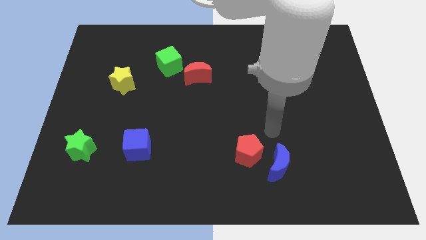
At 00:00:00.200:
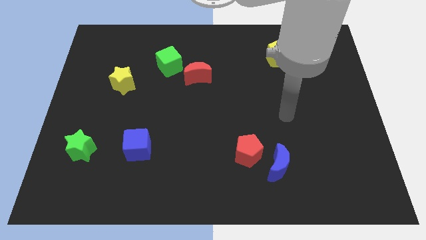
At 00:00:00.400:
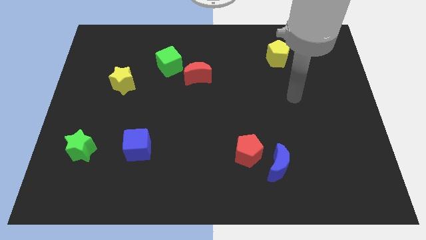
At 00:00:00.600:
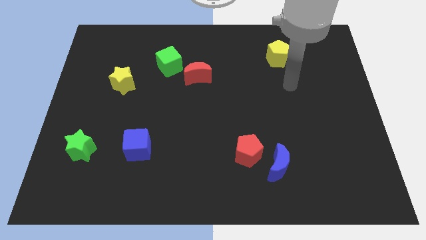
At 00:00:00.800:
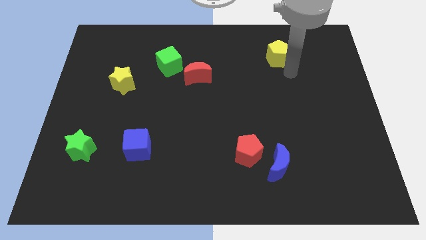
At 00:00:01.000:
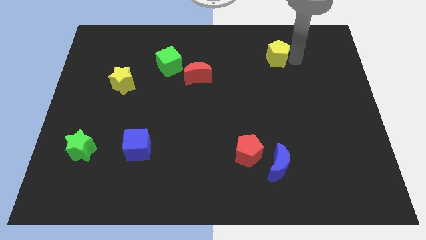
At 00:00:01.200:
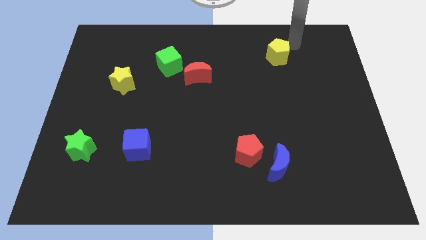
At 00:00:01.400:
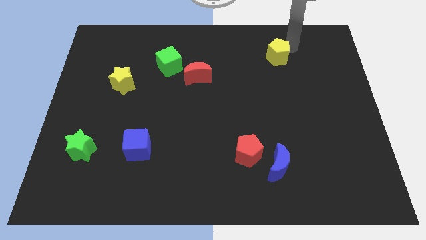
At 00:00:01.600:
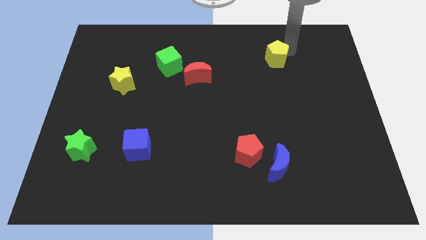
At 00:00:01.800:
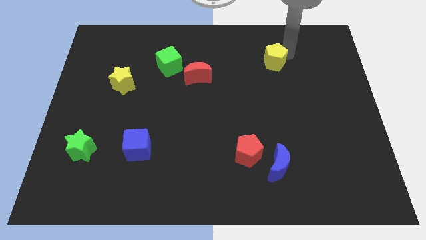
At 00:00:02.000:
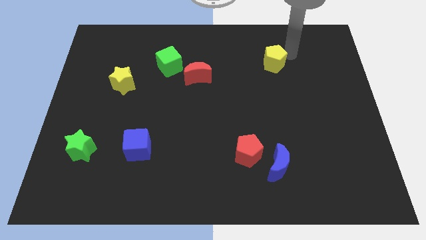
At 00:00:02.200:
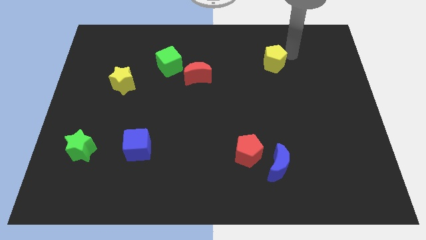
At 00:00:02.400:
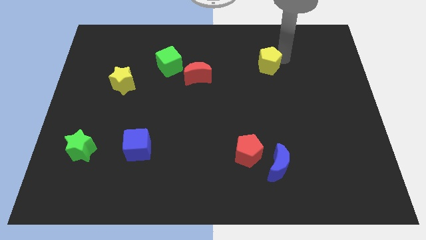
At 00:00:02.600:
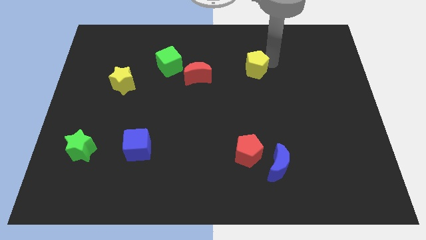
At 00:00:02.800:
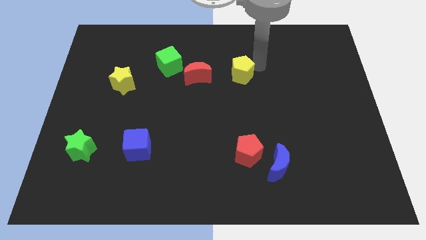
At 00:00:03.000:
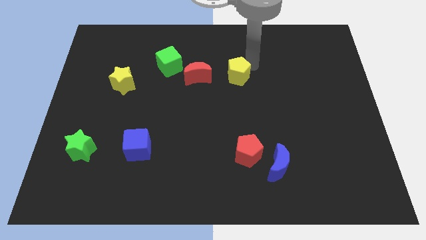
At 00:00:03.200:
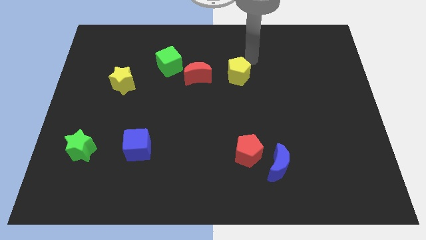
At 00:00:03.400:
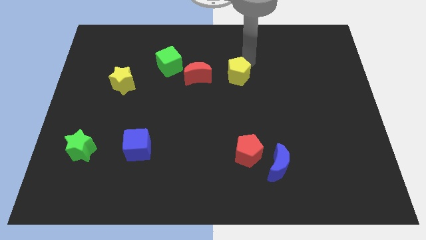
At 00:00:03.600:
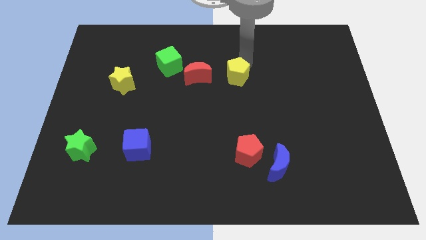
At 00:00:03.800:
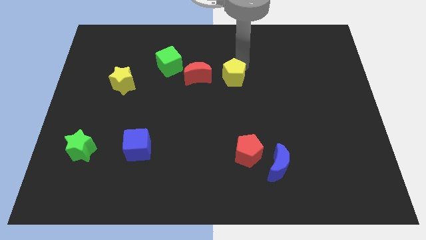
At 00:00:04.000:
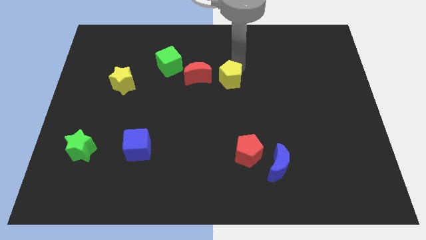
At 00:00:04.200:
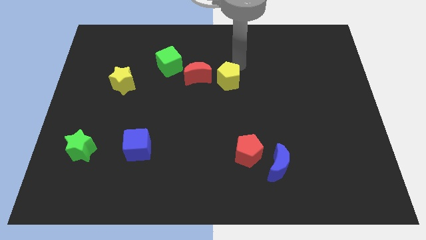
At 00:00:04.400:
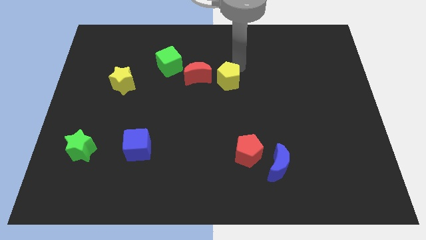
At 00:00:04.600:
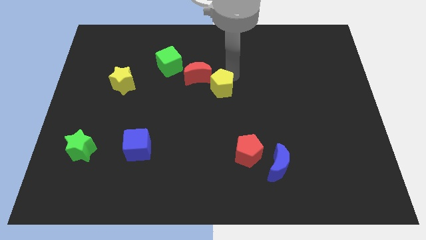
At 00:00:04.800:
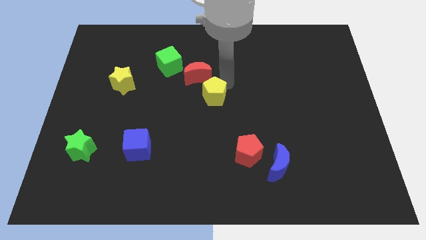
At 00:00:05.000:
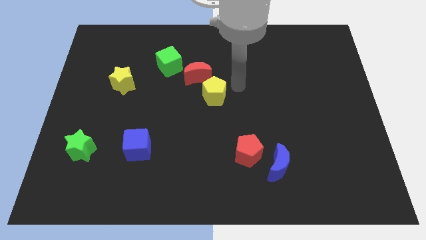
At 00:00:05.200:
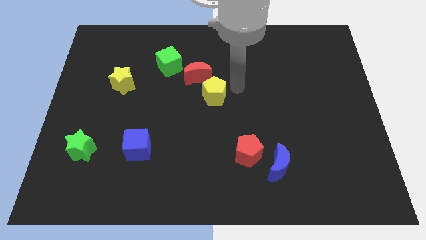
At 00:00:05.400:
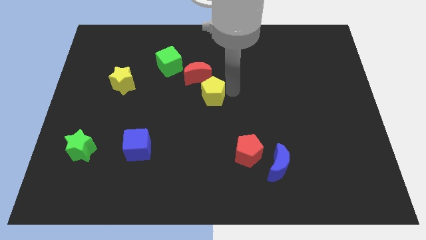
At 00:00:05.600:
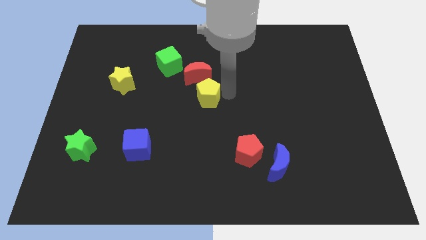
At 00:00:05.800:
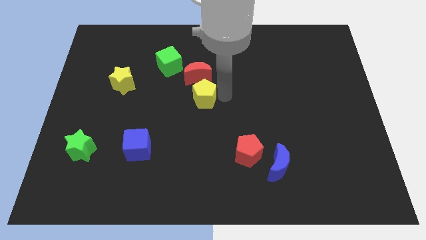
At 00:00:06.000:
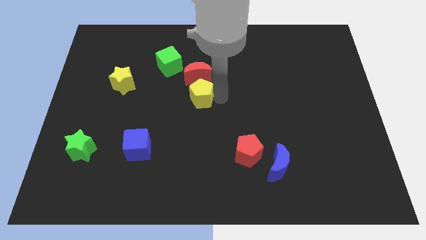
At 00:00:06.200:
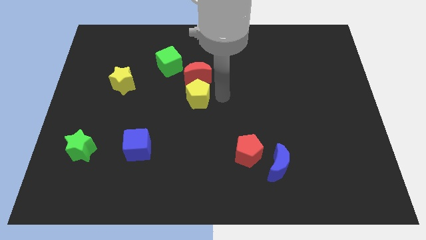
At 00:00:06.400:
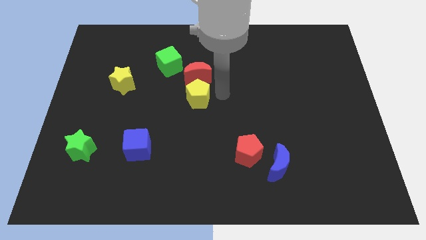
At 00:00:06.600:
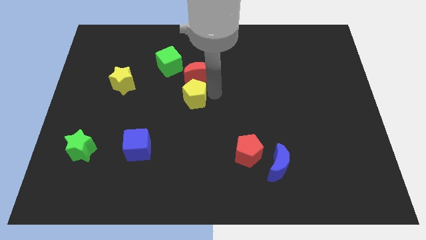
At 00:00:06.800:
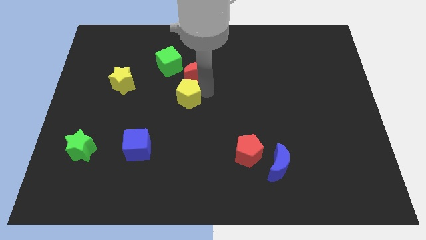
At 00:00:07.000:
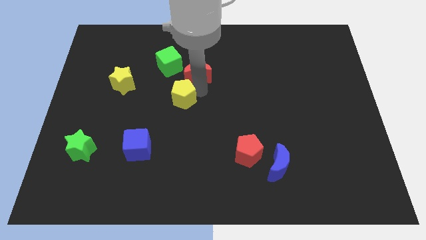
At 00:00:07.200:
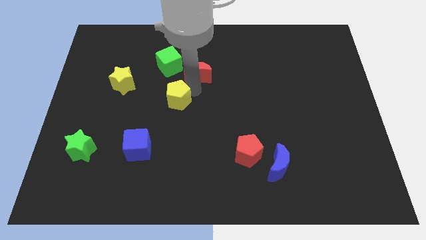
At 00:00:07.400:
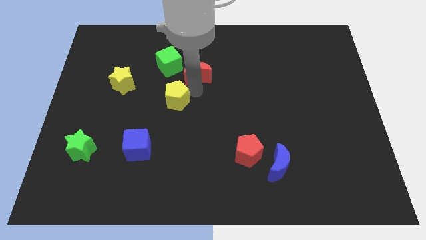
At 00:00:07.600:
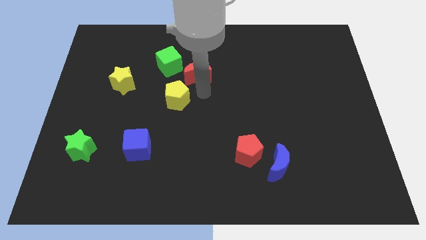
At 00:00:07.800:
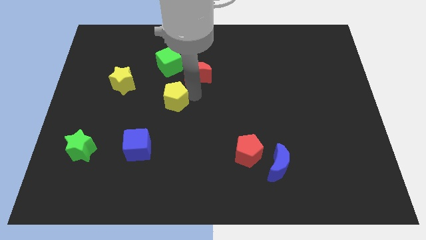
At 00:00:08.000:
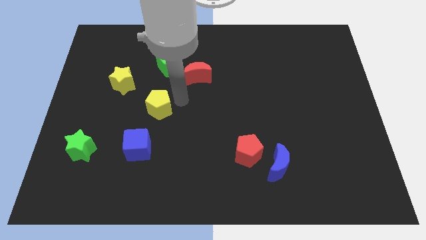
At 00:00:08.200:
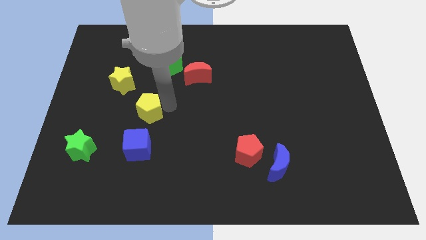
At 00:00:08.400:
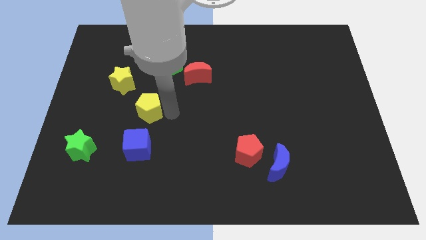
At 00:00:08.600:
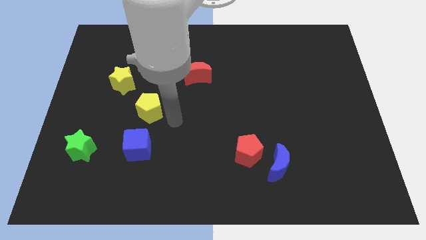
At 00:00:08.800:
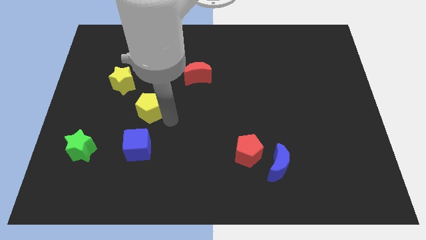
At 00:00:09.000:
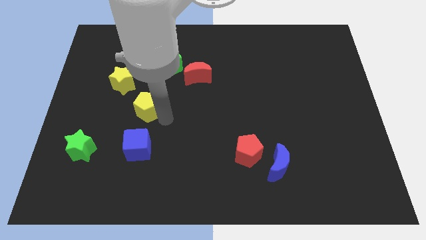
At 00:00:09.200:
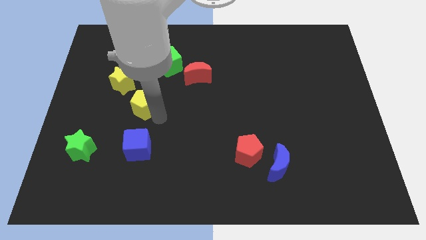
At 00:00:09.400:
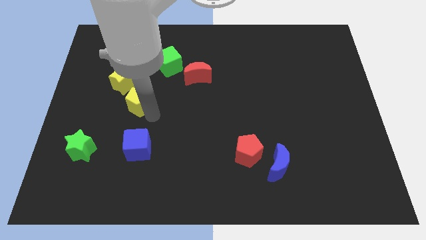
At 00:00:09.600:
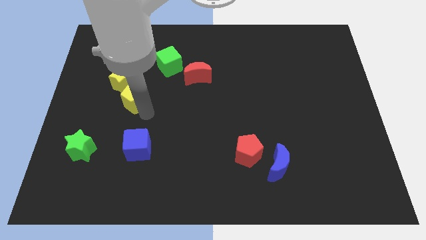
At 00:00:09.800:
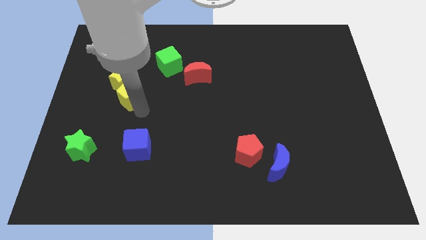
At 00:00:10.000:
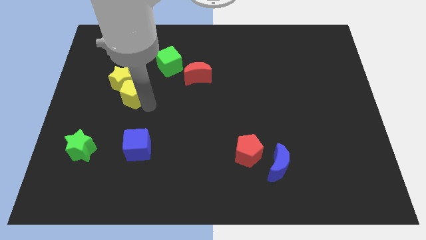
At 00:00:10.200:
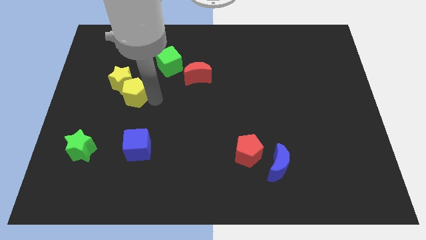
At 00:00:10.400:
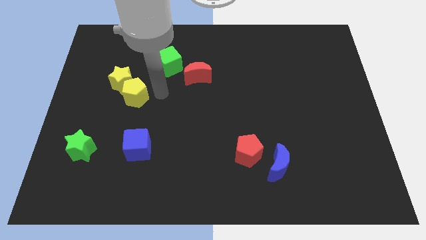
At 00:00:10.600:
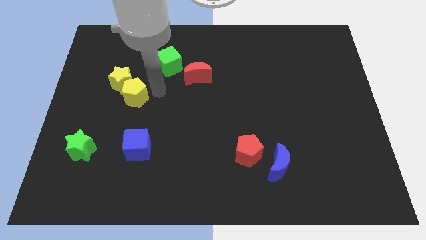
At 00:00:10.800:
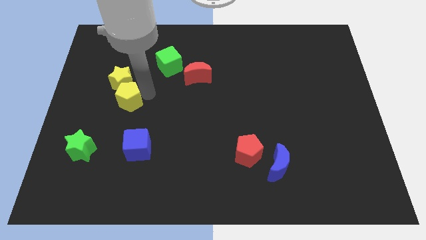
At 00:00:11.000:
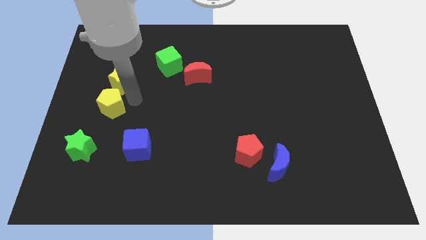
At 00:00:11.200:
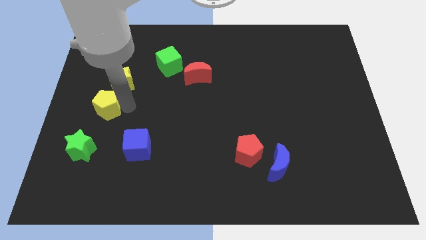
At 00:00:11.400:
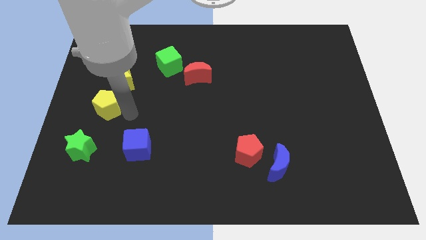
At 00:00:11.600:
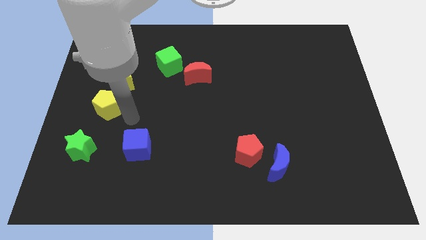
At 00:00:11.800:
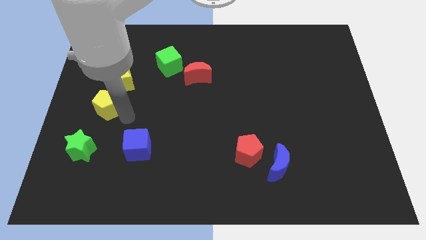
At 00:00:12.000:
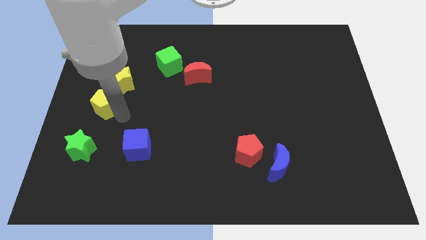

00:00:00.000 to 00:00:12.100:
slide the yellow pentagon to the center left
